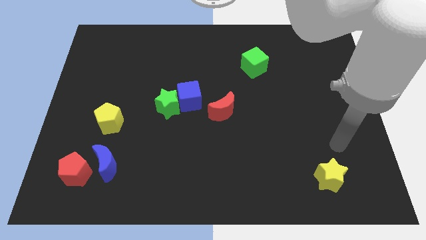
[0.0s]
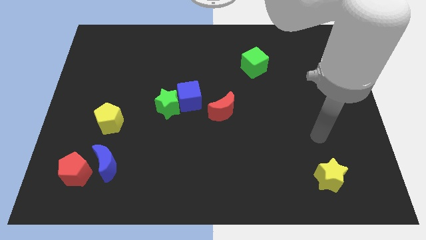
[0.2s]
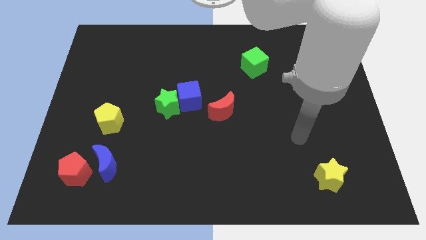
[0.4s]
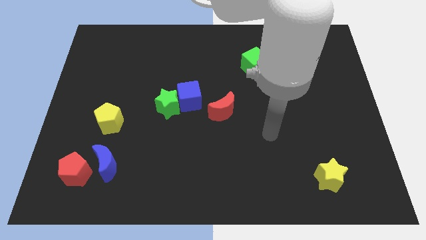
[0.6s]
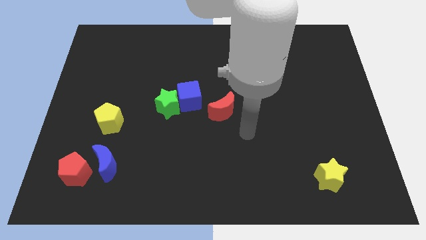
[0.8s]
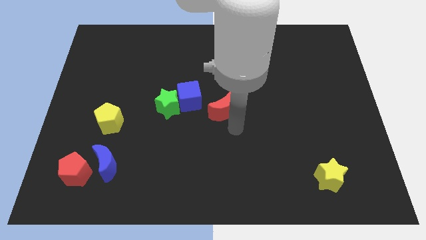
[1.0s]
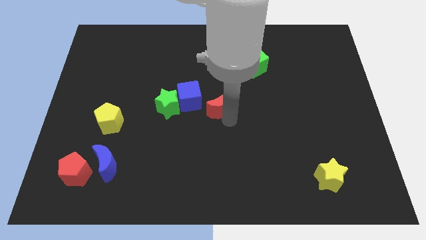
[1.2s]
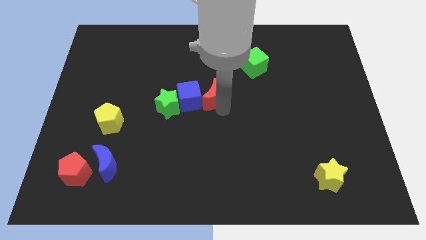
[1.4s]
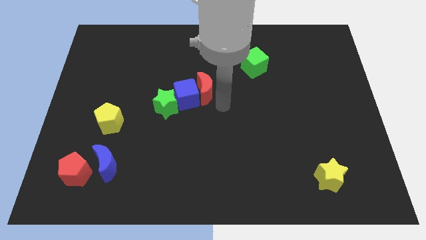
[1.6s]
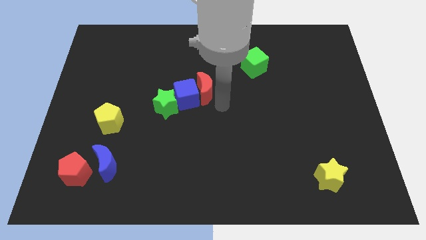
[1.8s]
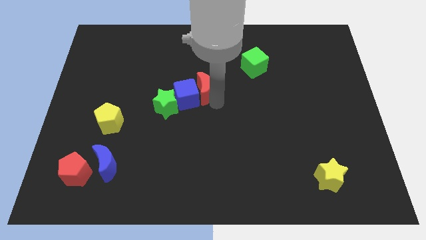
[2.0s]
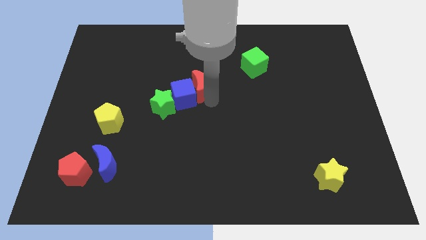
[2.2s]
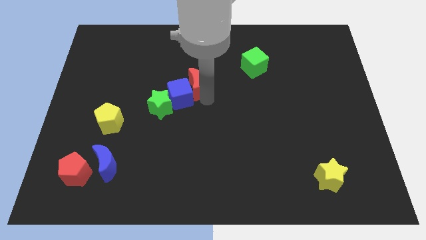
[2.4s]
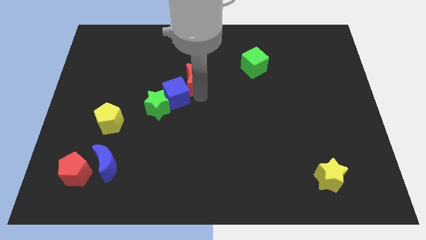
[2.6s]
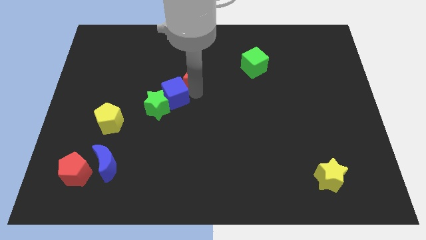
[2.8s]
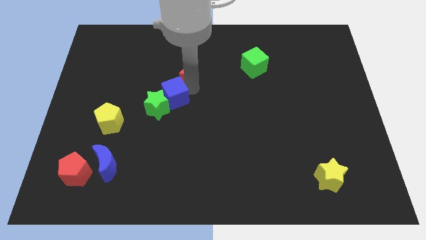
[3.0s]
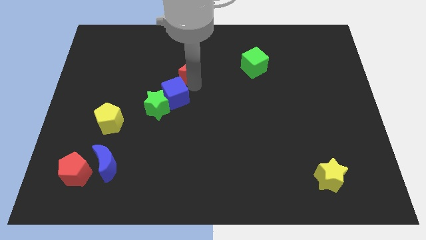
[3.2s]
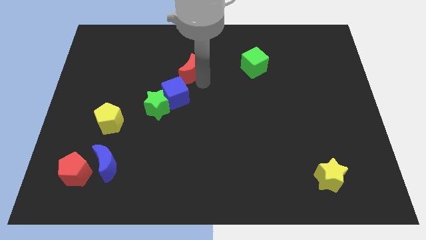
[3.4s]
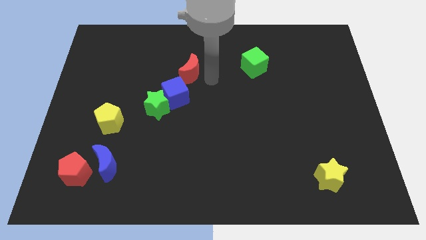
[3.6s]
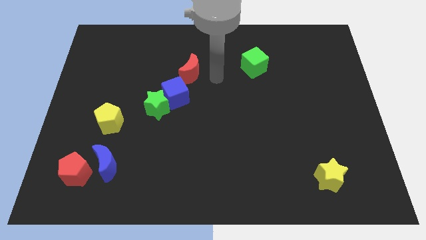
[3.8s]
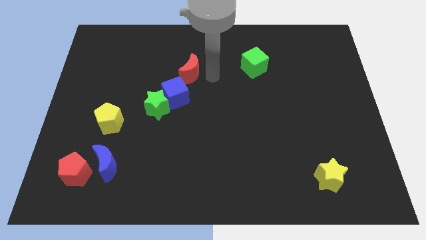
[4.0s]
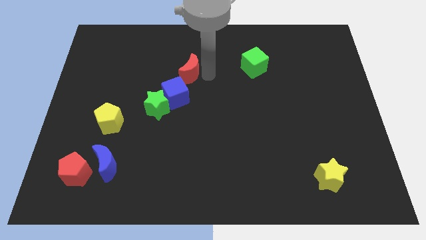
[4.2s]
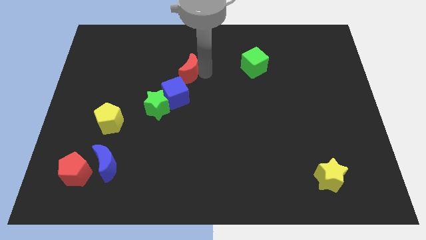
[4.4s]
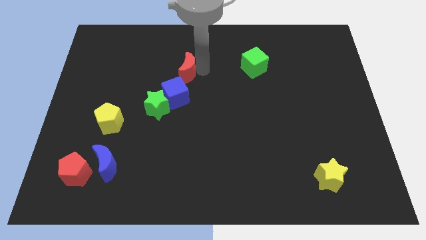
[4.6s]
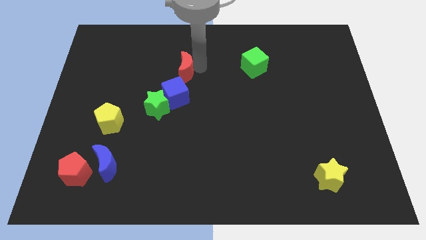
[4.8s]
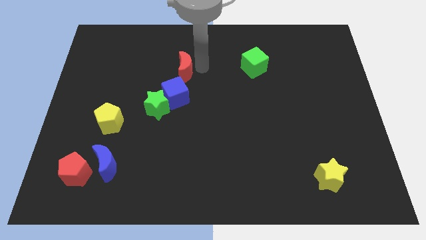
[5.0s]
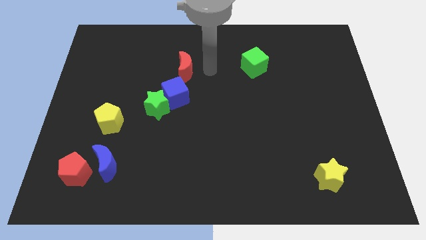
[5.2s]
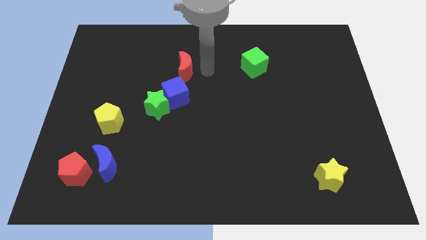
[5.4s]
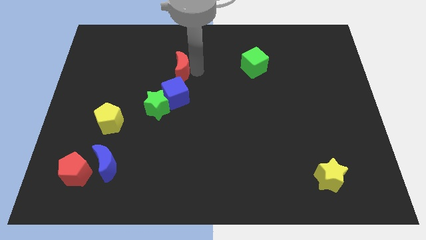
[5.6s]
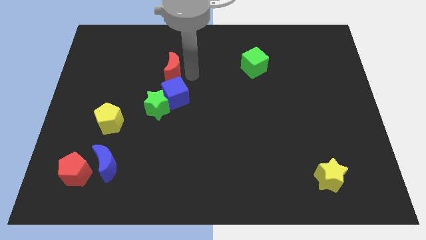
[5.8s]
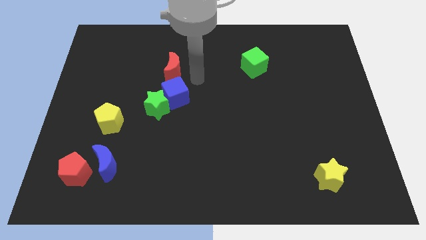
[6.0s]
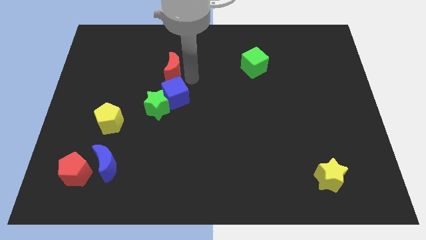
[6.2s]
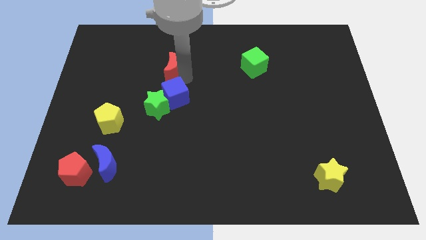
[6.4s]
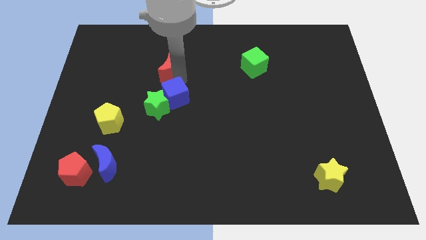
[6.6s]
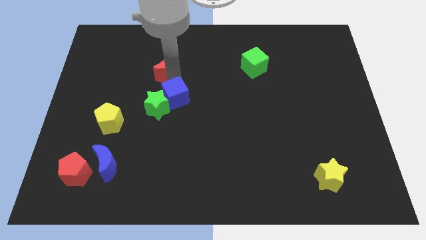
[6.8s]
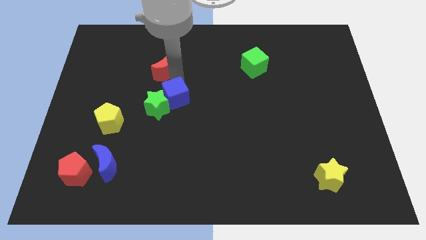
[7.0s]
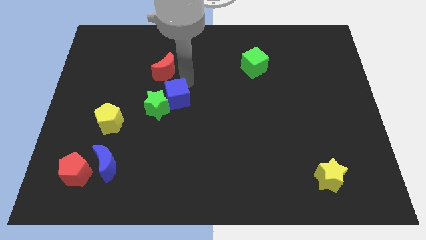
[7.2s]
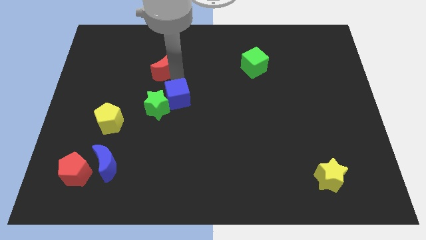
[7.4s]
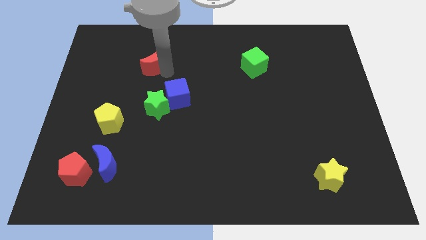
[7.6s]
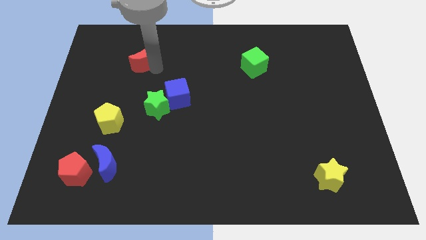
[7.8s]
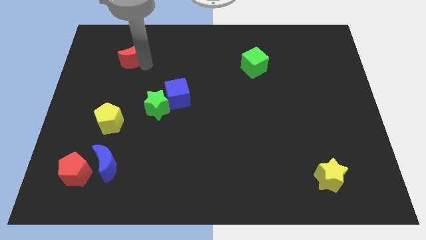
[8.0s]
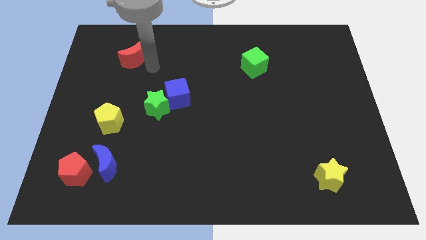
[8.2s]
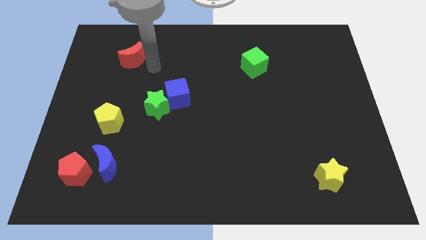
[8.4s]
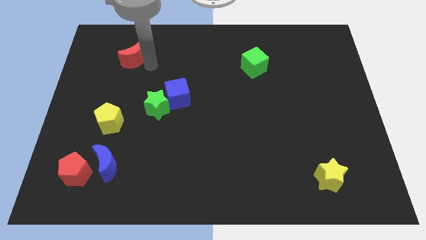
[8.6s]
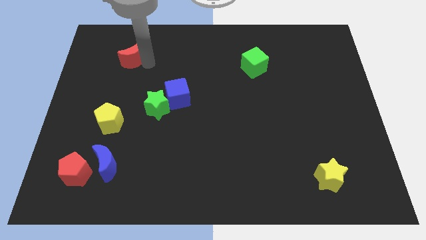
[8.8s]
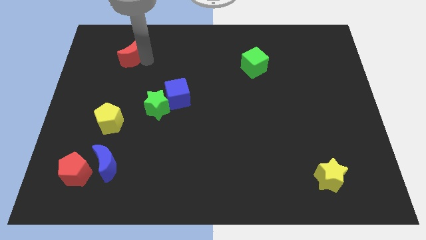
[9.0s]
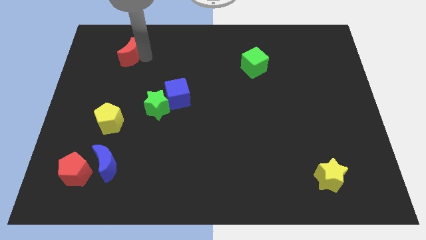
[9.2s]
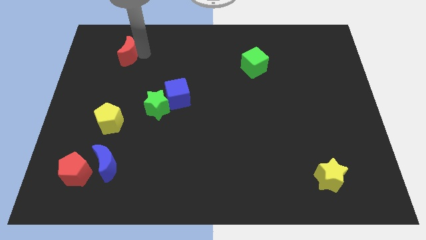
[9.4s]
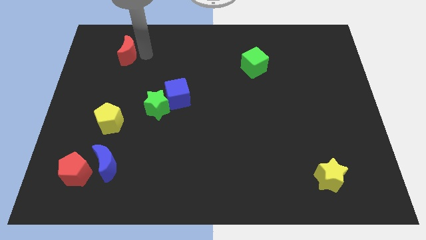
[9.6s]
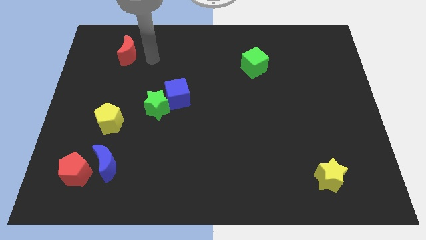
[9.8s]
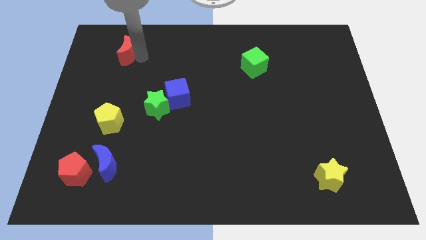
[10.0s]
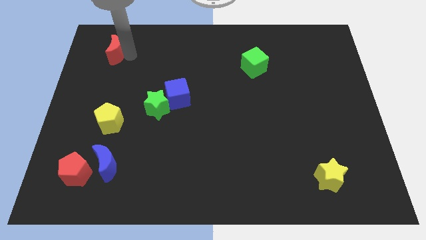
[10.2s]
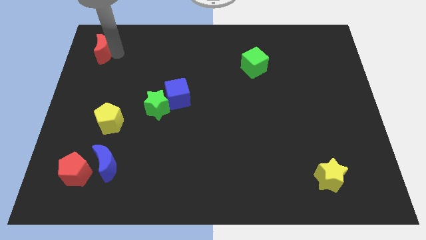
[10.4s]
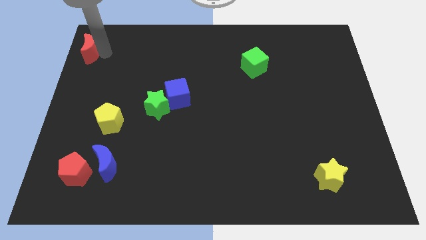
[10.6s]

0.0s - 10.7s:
push the red moon to the top left

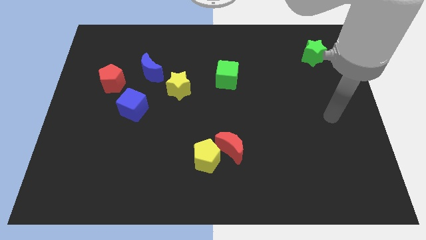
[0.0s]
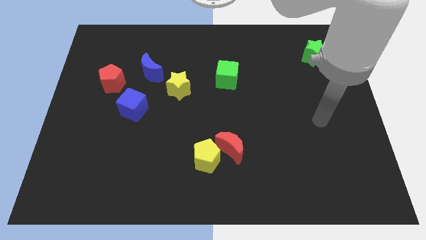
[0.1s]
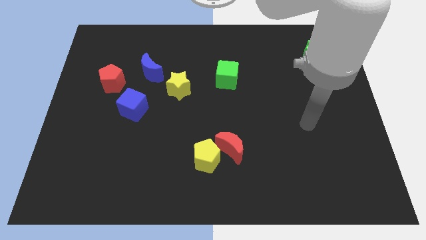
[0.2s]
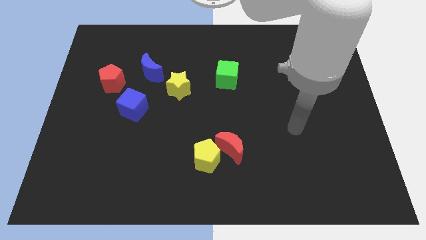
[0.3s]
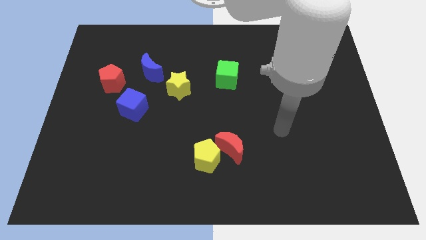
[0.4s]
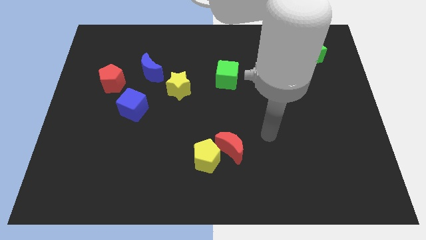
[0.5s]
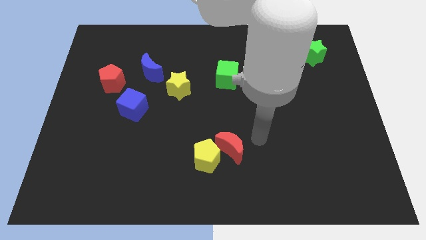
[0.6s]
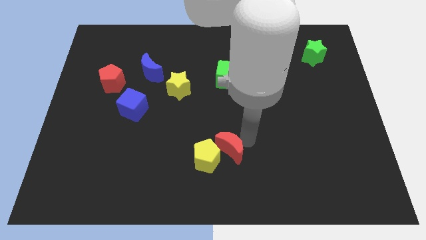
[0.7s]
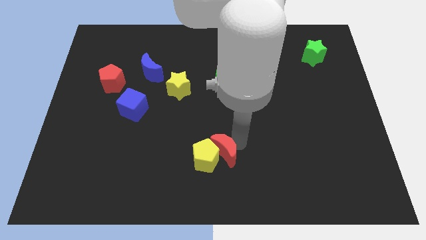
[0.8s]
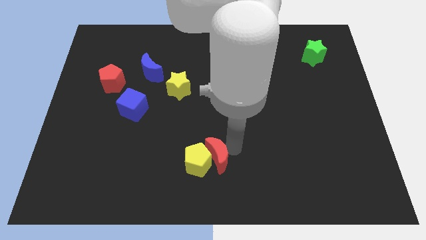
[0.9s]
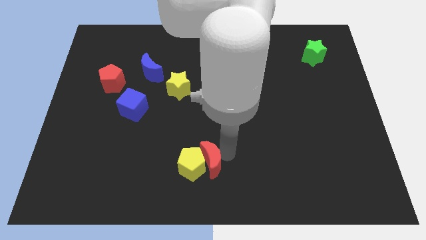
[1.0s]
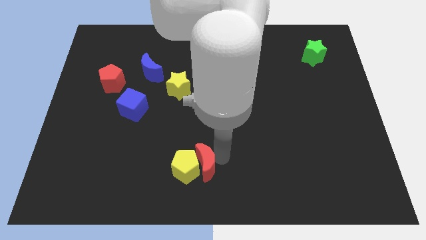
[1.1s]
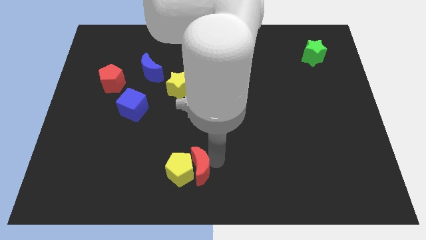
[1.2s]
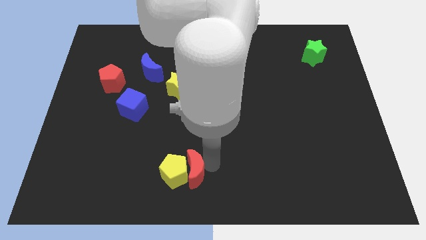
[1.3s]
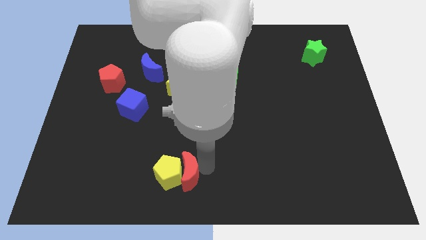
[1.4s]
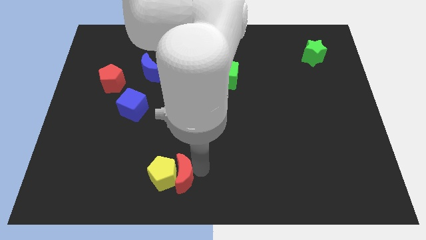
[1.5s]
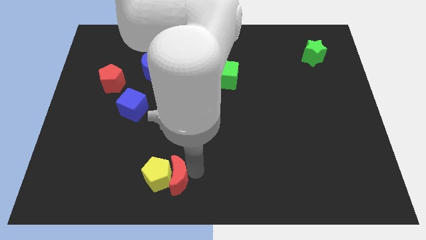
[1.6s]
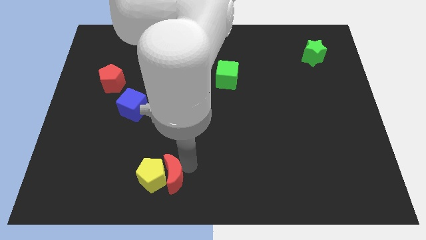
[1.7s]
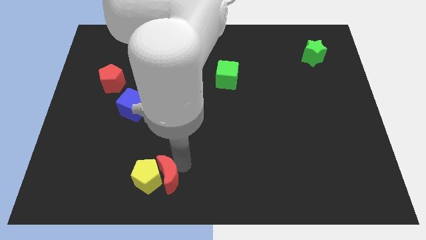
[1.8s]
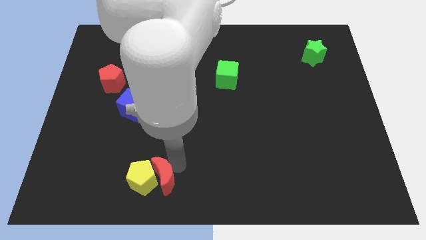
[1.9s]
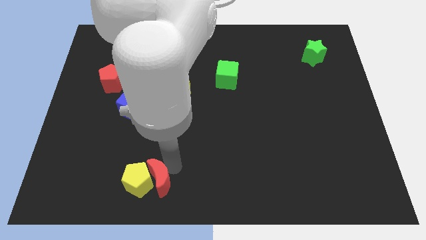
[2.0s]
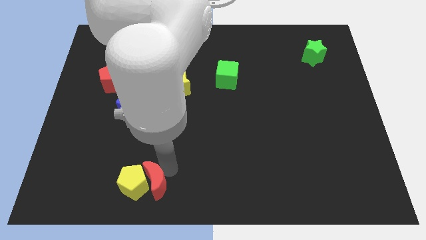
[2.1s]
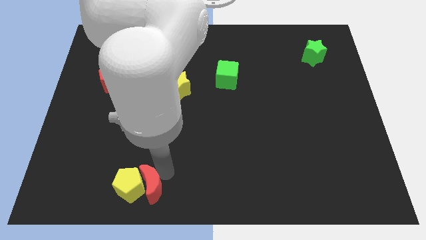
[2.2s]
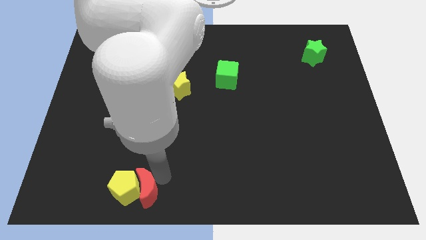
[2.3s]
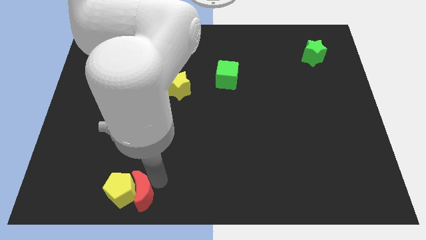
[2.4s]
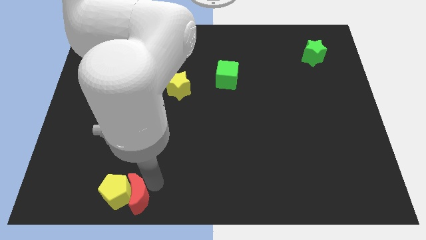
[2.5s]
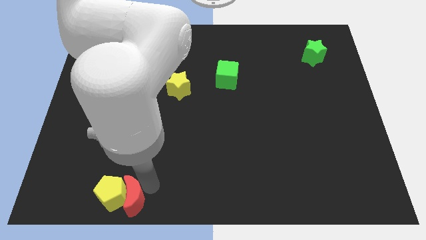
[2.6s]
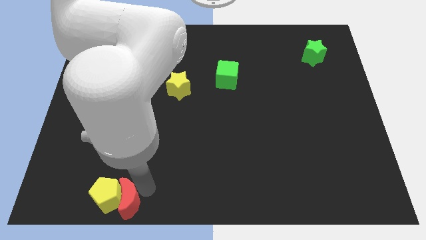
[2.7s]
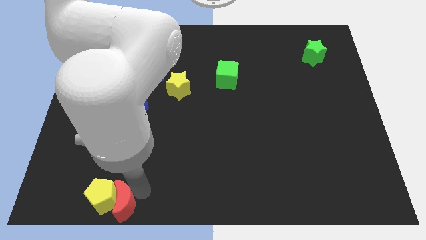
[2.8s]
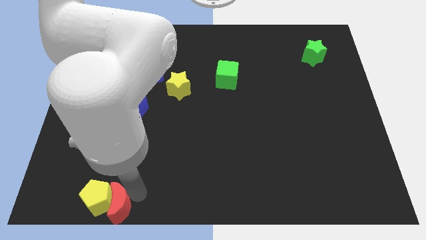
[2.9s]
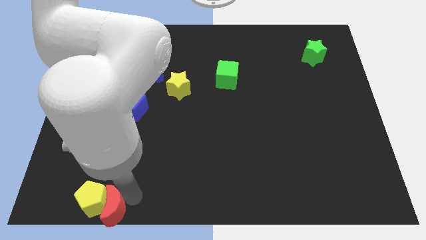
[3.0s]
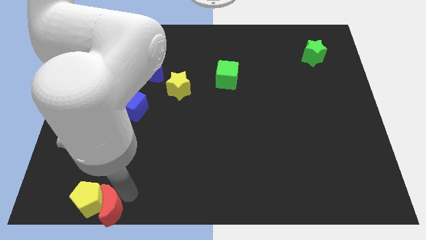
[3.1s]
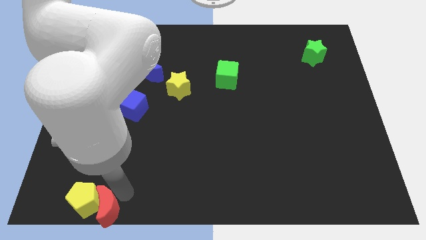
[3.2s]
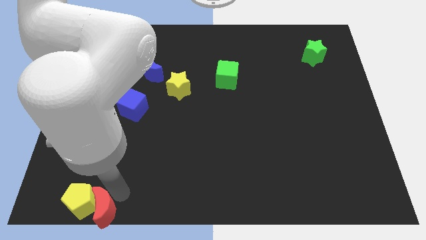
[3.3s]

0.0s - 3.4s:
push the yellow pentagon to the lower left corner
